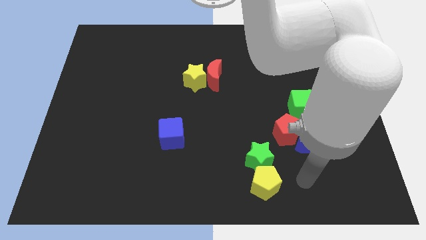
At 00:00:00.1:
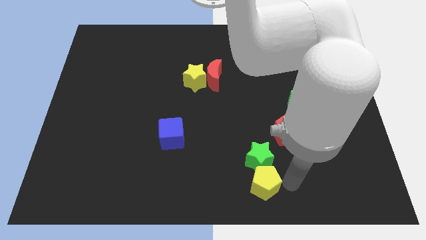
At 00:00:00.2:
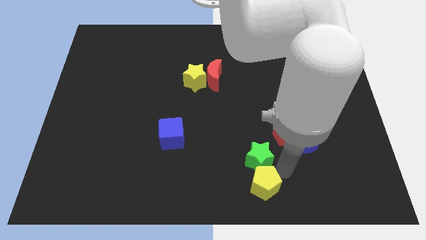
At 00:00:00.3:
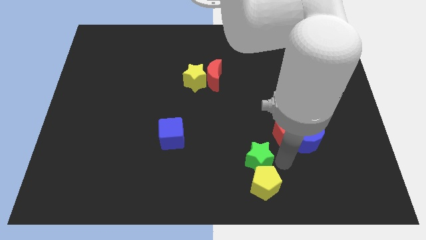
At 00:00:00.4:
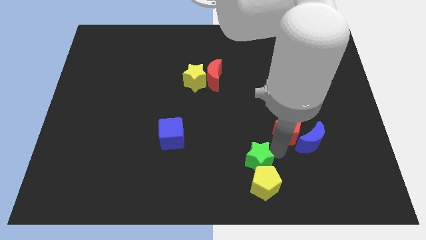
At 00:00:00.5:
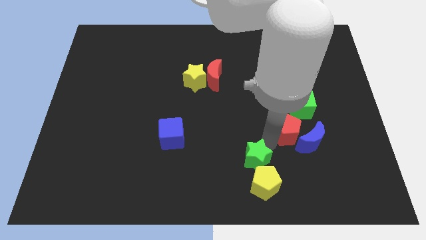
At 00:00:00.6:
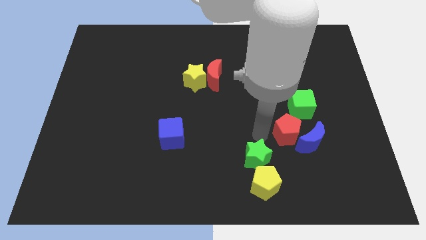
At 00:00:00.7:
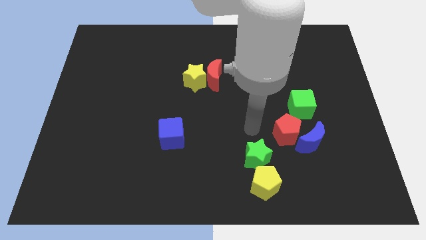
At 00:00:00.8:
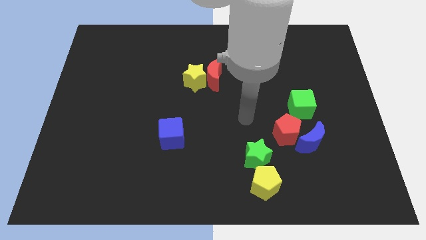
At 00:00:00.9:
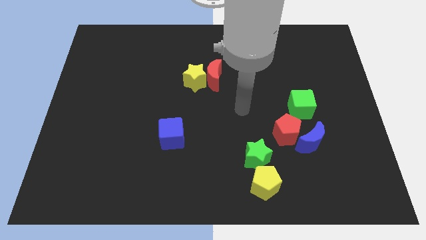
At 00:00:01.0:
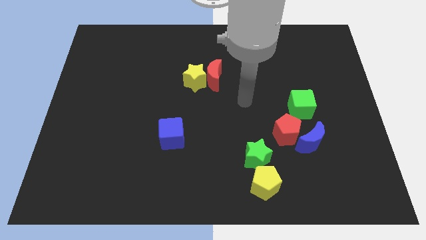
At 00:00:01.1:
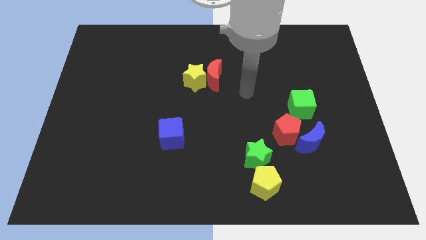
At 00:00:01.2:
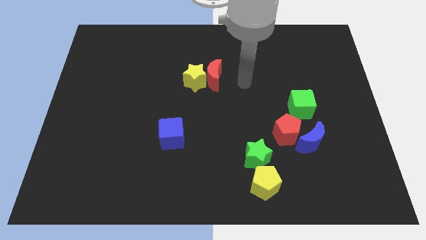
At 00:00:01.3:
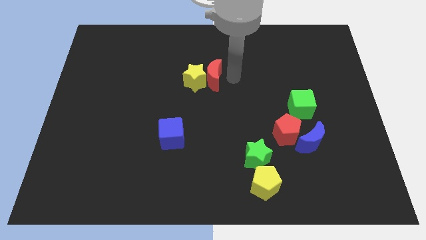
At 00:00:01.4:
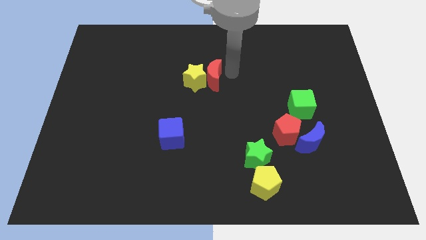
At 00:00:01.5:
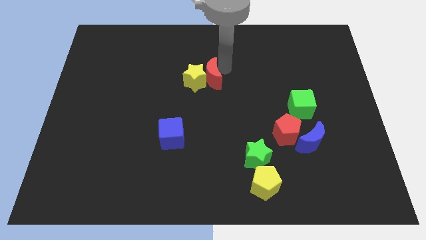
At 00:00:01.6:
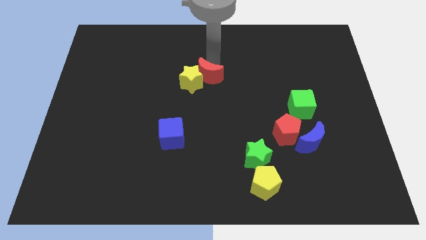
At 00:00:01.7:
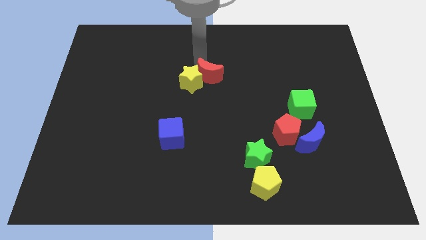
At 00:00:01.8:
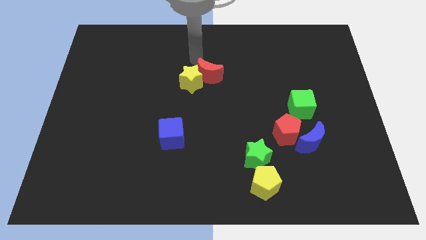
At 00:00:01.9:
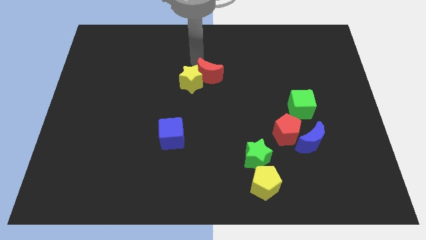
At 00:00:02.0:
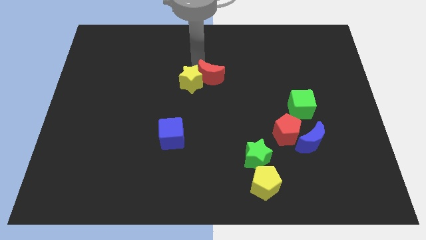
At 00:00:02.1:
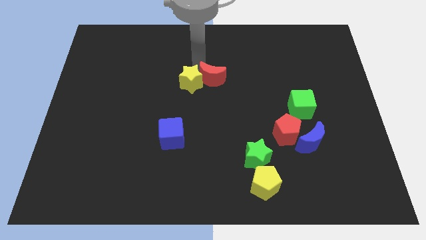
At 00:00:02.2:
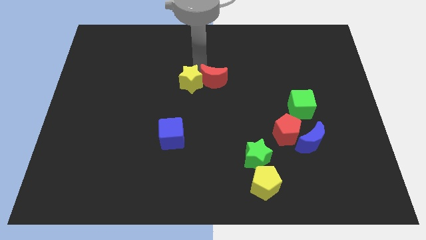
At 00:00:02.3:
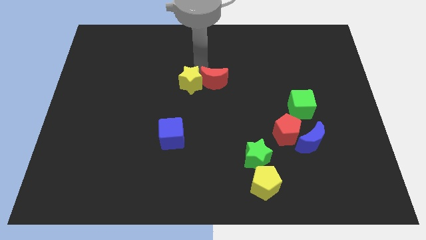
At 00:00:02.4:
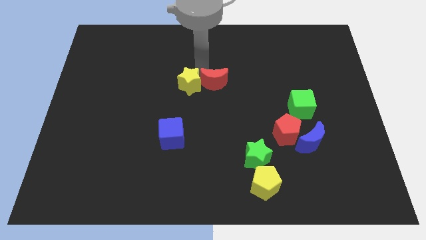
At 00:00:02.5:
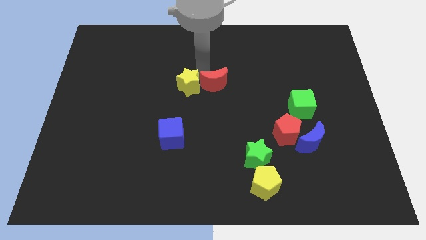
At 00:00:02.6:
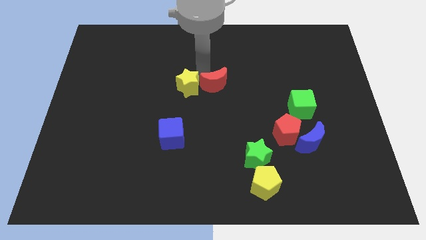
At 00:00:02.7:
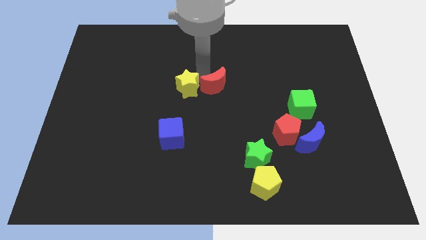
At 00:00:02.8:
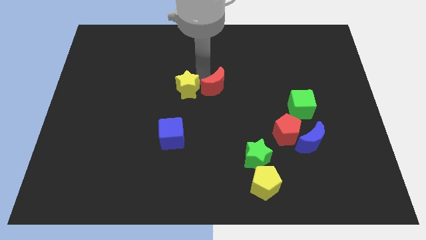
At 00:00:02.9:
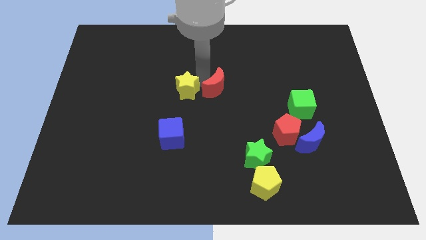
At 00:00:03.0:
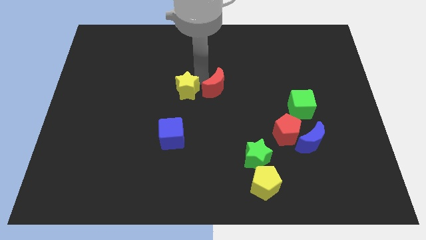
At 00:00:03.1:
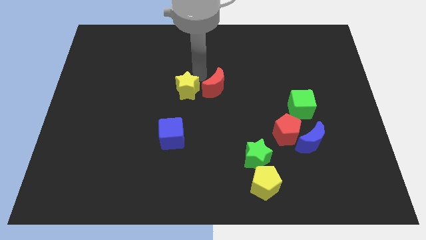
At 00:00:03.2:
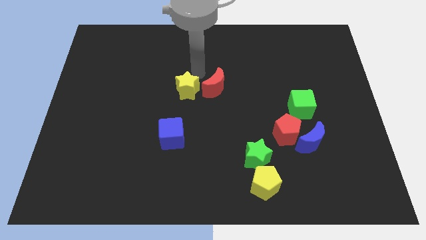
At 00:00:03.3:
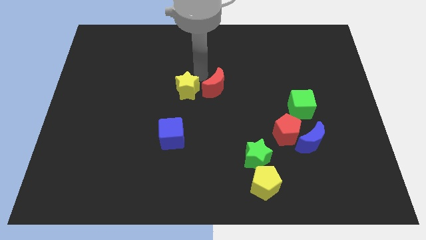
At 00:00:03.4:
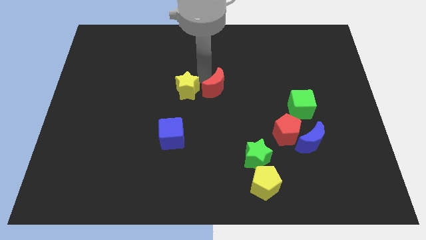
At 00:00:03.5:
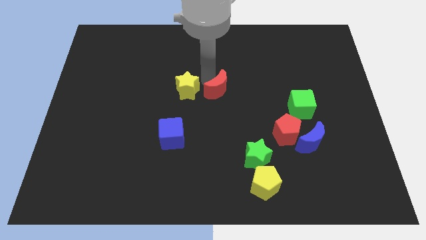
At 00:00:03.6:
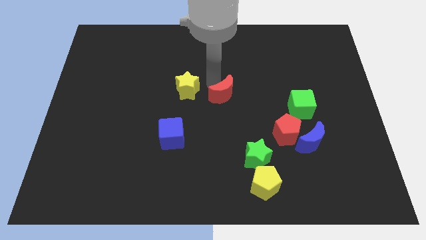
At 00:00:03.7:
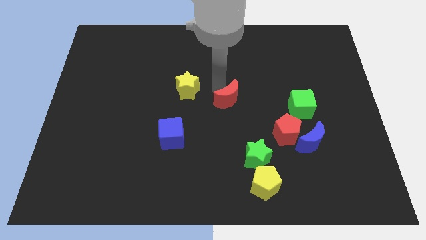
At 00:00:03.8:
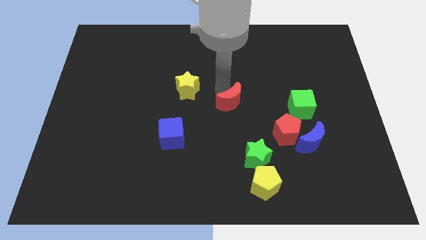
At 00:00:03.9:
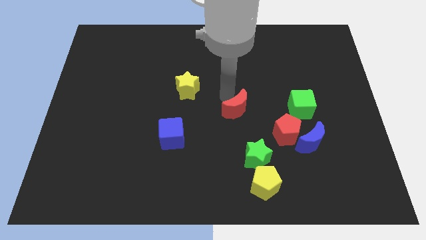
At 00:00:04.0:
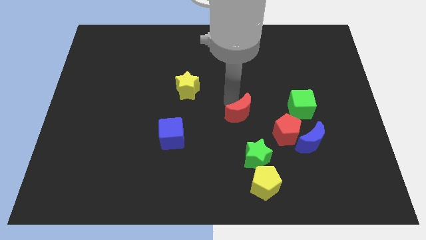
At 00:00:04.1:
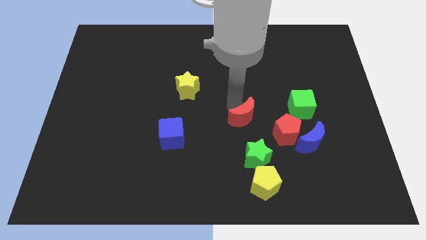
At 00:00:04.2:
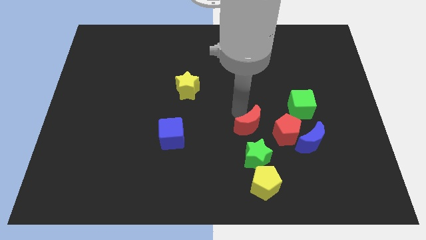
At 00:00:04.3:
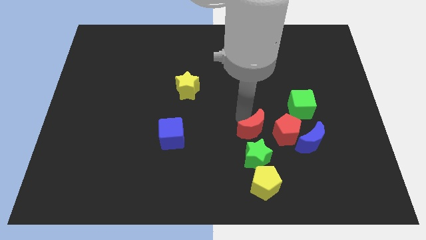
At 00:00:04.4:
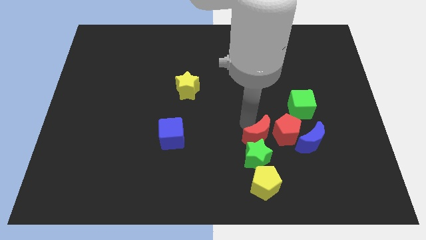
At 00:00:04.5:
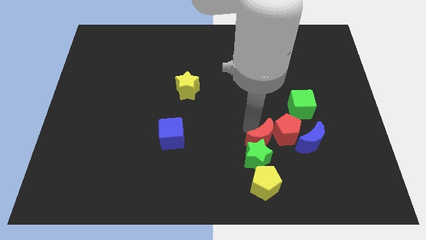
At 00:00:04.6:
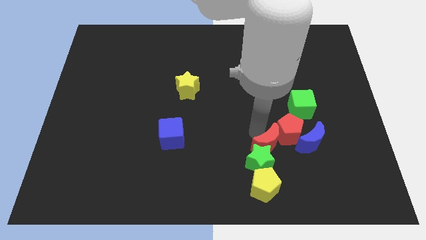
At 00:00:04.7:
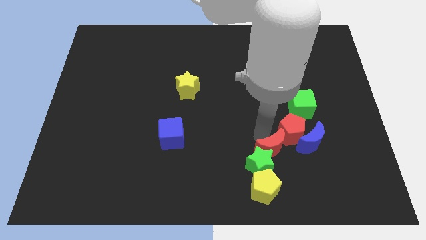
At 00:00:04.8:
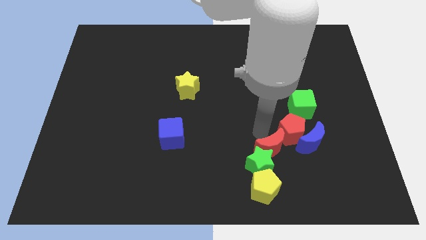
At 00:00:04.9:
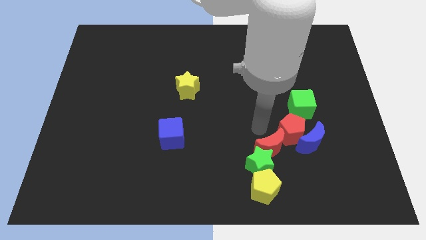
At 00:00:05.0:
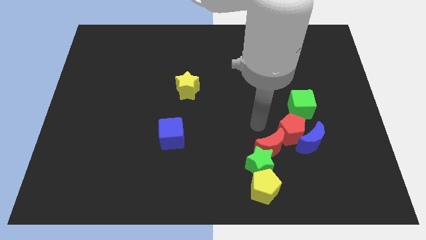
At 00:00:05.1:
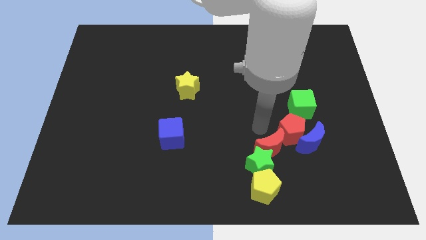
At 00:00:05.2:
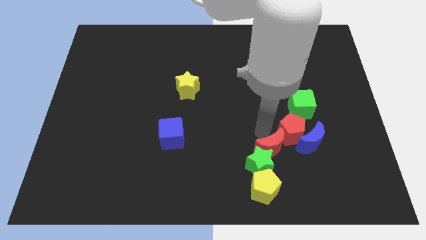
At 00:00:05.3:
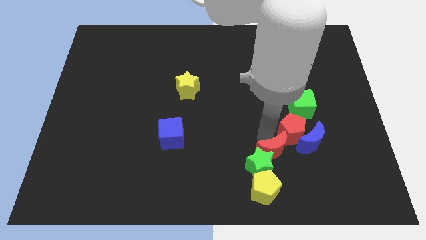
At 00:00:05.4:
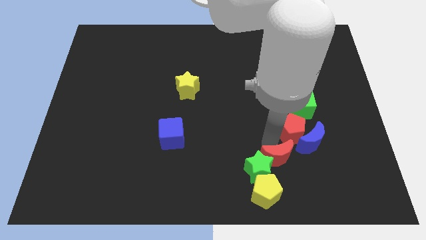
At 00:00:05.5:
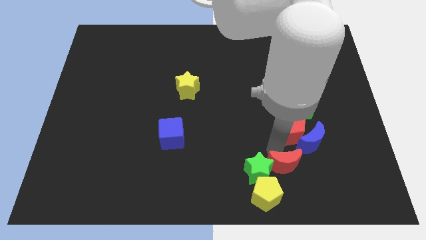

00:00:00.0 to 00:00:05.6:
push the red moon diagonally down and to the right of the green star

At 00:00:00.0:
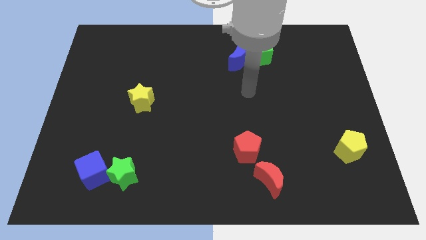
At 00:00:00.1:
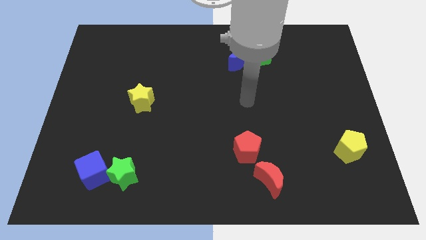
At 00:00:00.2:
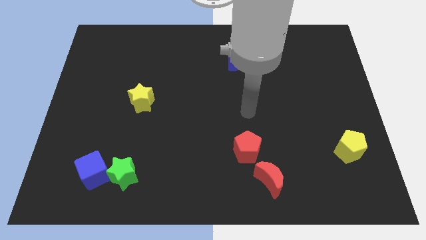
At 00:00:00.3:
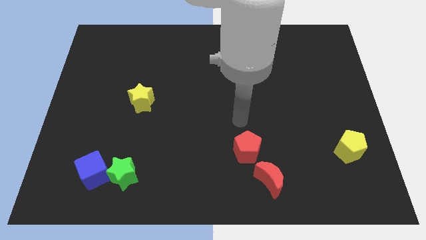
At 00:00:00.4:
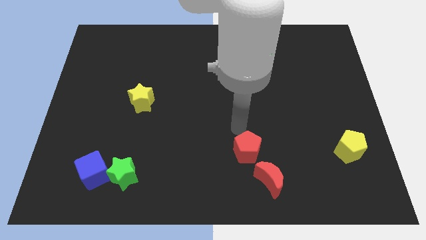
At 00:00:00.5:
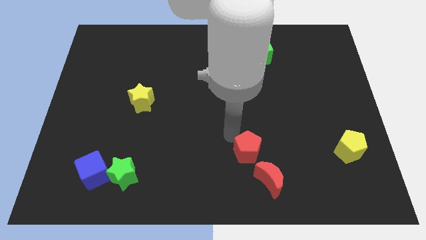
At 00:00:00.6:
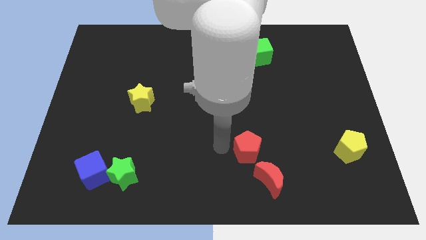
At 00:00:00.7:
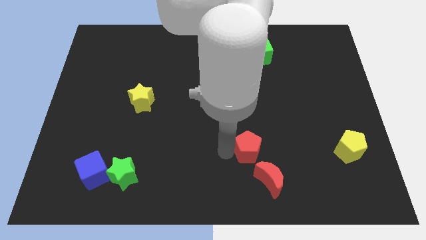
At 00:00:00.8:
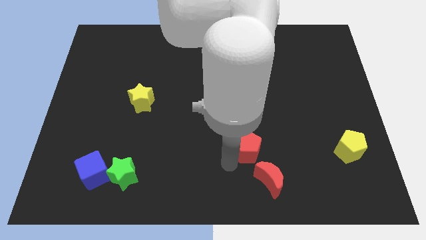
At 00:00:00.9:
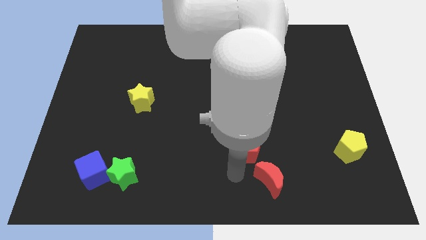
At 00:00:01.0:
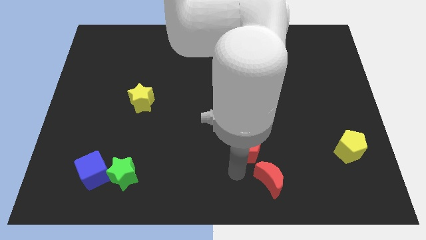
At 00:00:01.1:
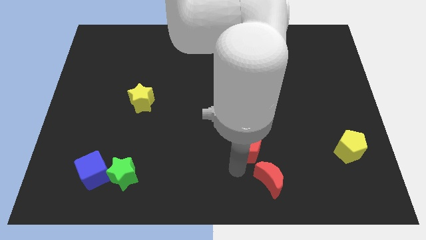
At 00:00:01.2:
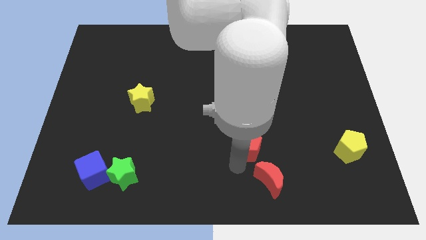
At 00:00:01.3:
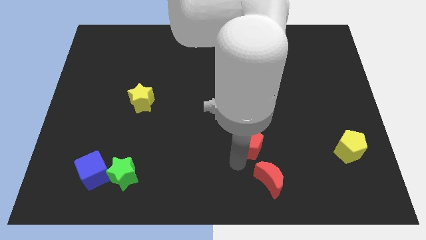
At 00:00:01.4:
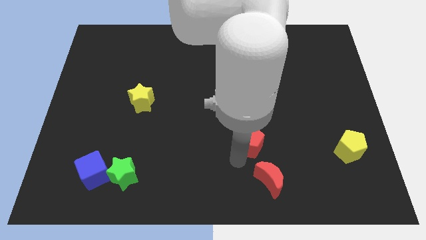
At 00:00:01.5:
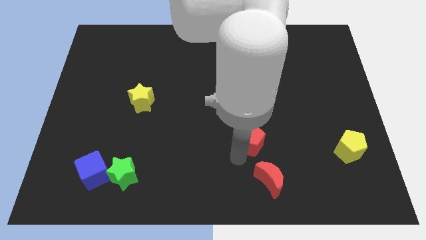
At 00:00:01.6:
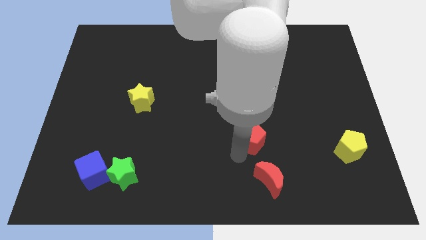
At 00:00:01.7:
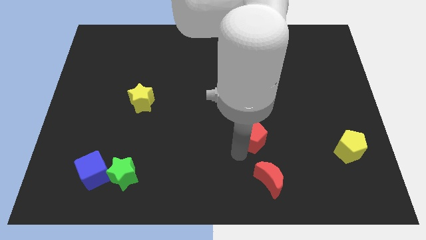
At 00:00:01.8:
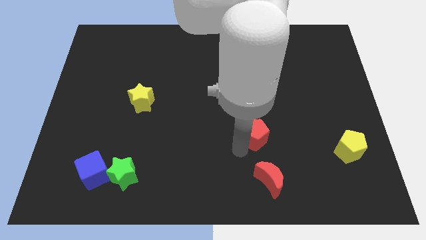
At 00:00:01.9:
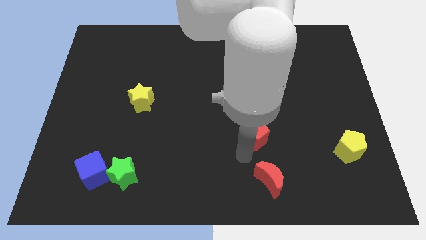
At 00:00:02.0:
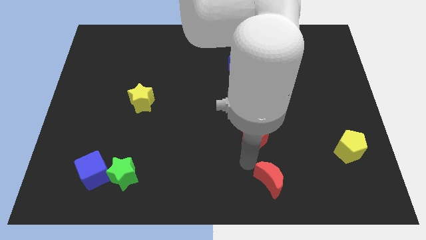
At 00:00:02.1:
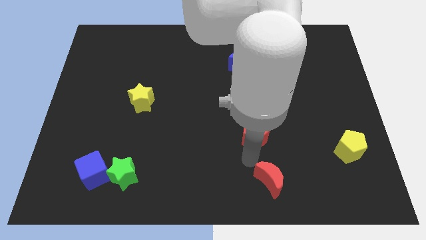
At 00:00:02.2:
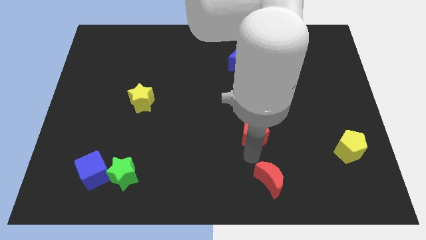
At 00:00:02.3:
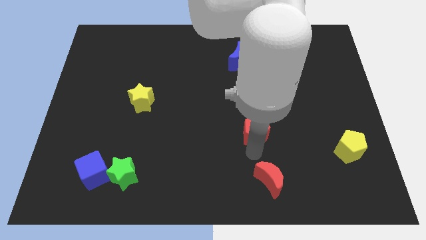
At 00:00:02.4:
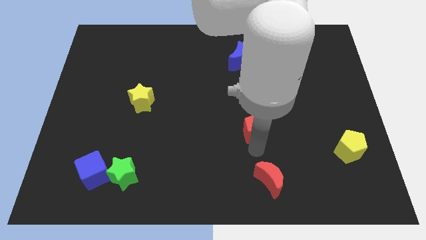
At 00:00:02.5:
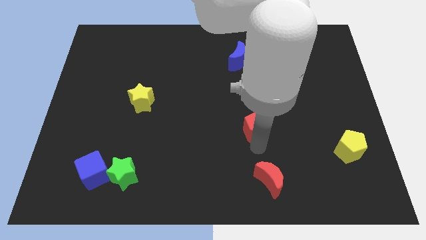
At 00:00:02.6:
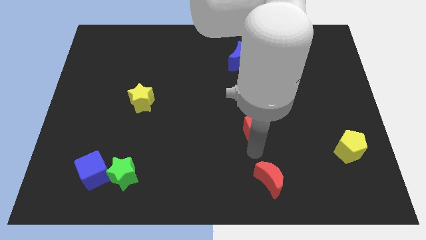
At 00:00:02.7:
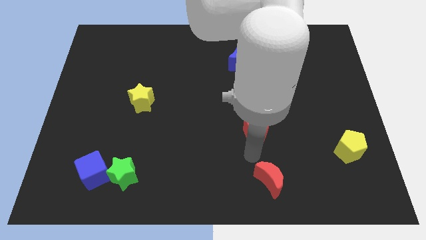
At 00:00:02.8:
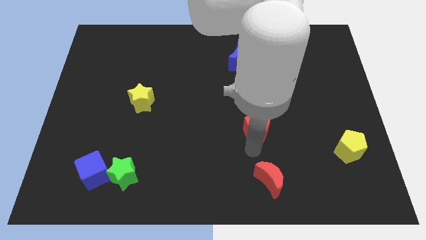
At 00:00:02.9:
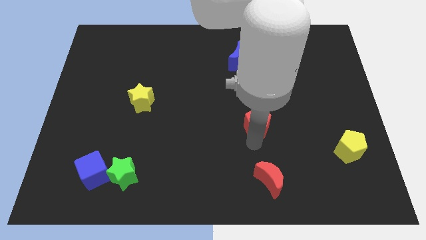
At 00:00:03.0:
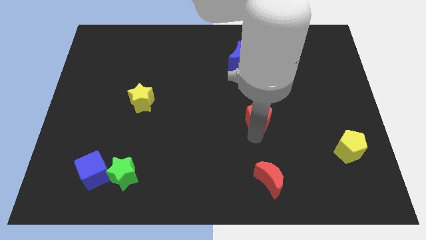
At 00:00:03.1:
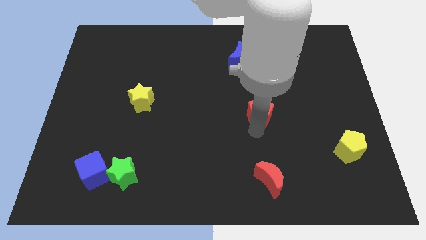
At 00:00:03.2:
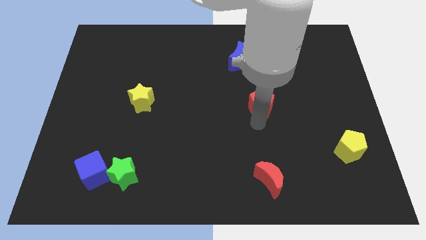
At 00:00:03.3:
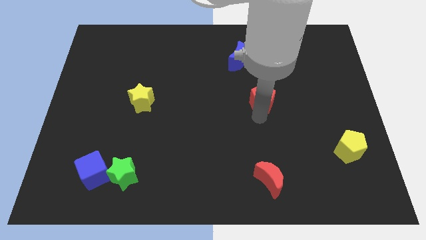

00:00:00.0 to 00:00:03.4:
push the red pentagon to the bottom of the green cube
